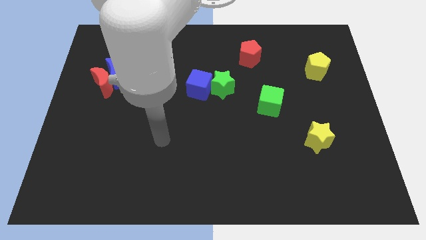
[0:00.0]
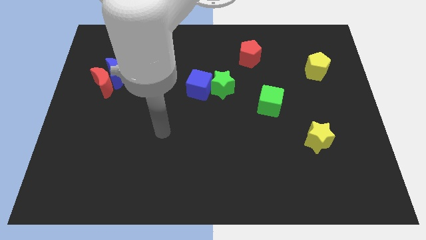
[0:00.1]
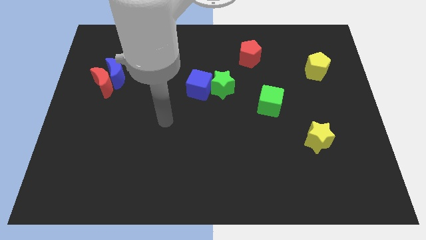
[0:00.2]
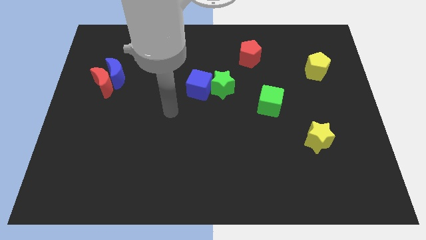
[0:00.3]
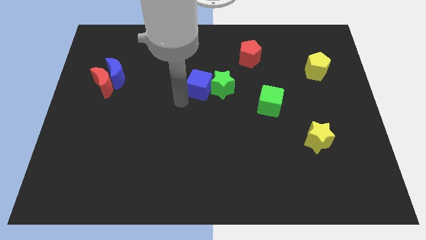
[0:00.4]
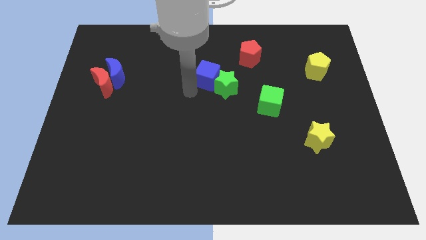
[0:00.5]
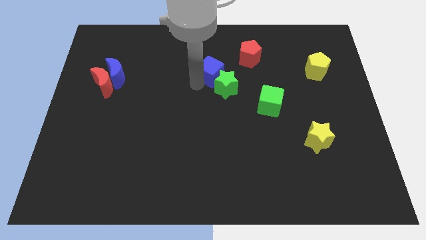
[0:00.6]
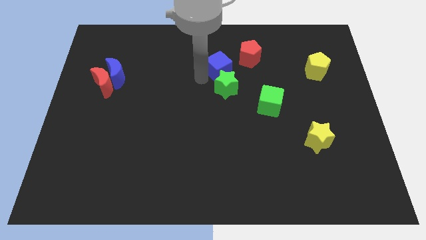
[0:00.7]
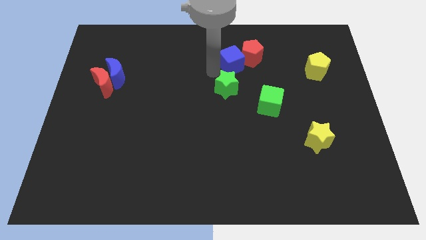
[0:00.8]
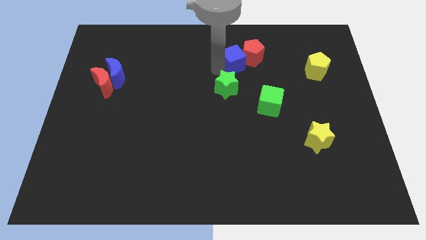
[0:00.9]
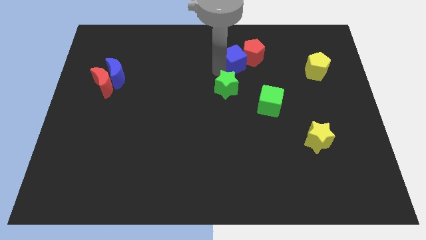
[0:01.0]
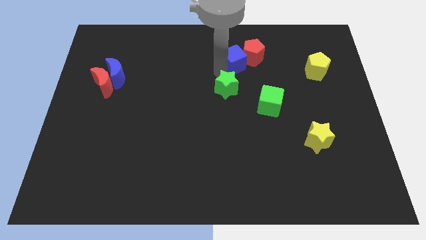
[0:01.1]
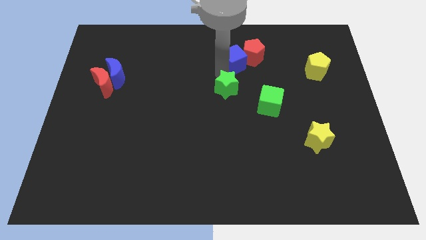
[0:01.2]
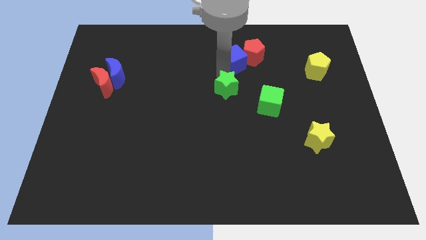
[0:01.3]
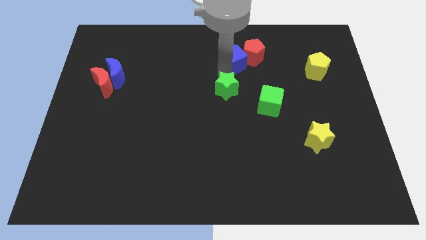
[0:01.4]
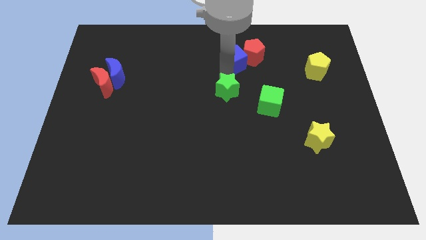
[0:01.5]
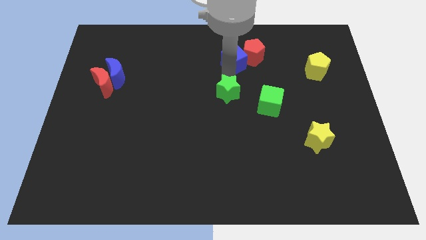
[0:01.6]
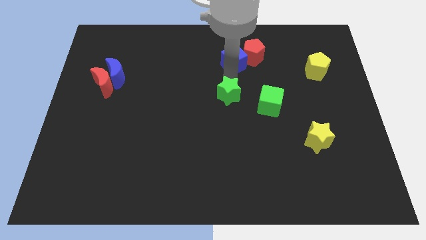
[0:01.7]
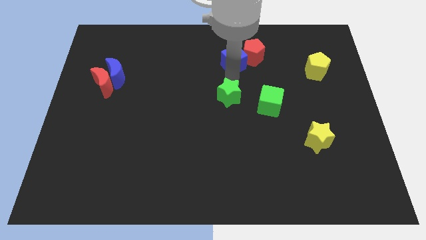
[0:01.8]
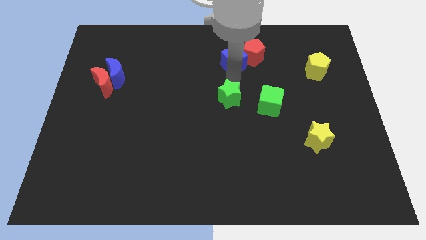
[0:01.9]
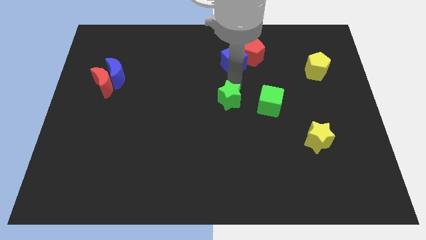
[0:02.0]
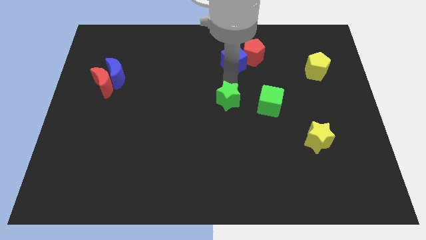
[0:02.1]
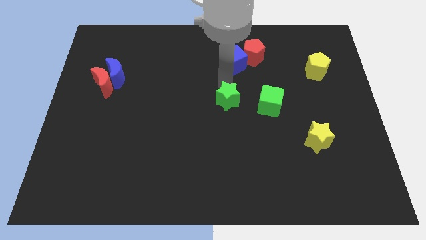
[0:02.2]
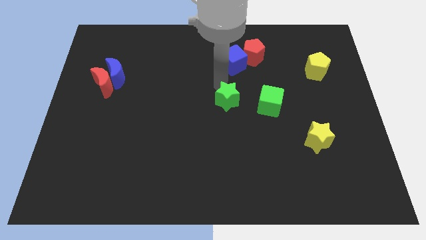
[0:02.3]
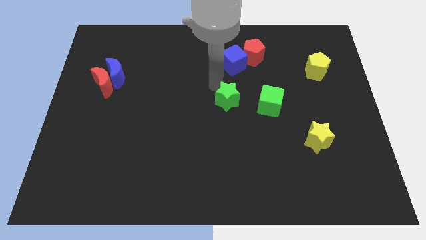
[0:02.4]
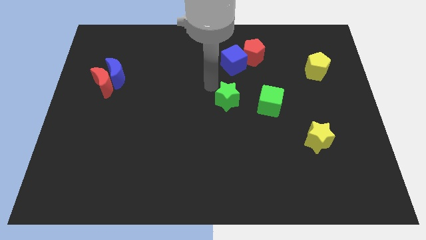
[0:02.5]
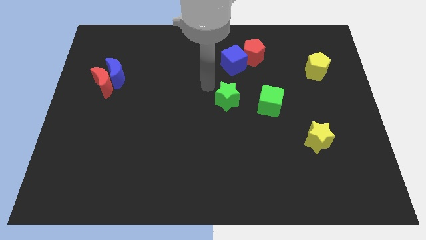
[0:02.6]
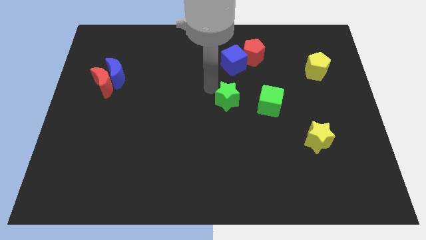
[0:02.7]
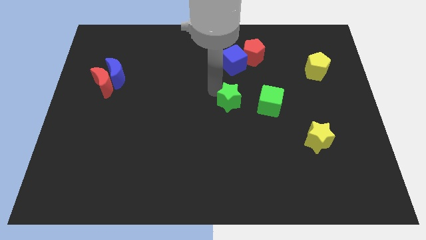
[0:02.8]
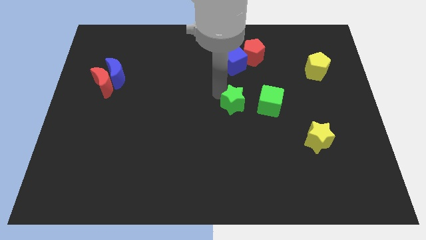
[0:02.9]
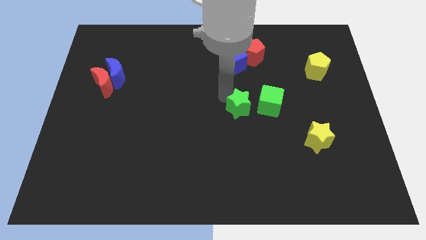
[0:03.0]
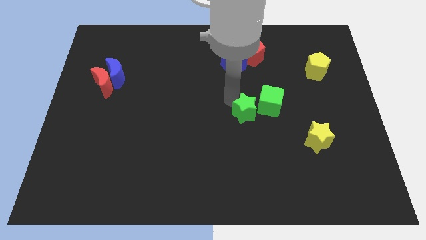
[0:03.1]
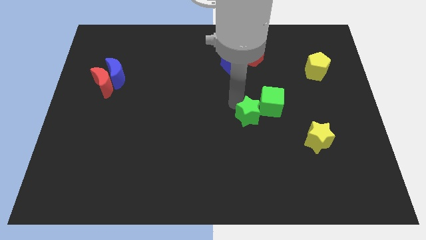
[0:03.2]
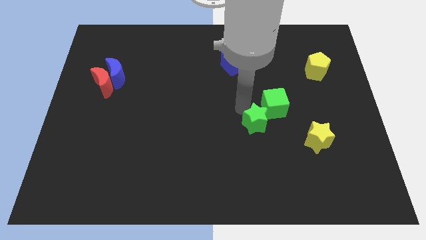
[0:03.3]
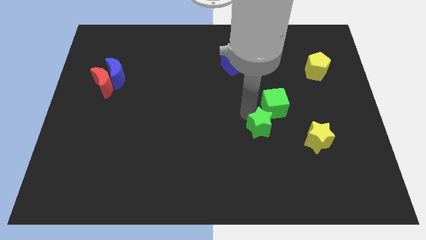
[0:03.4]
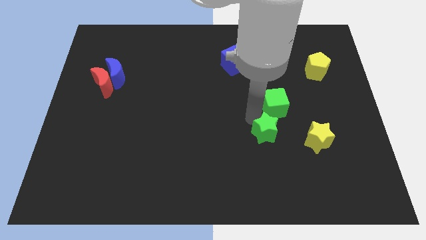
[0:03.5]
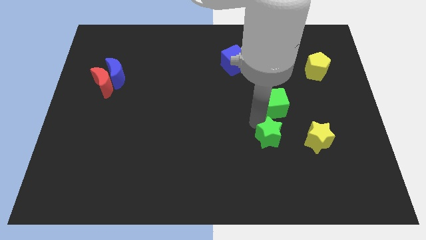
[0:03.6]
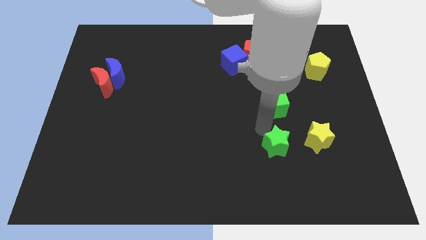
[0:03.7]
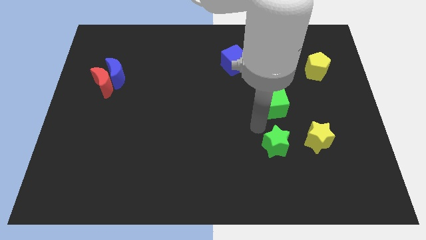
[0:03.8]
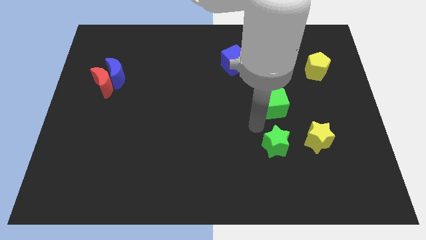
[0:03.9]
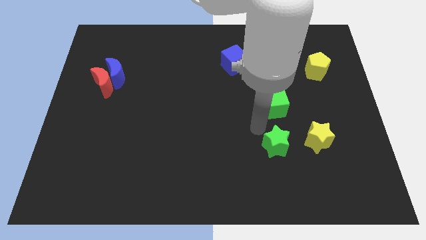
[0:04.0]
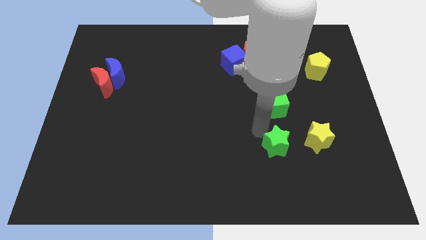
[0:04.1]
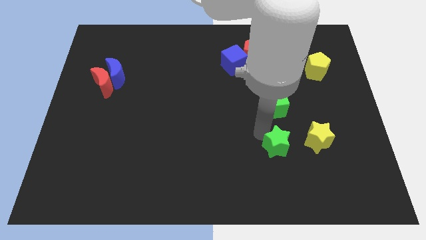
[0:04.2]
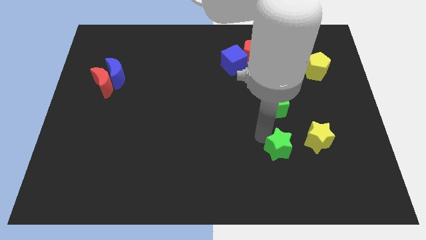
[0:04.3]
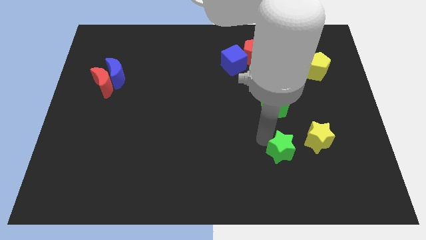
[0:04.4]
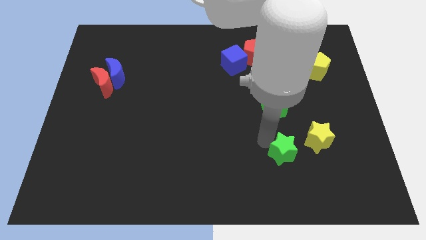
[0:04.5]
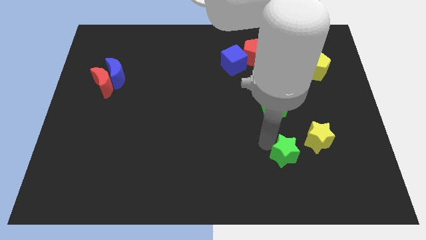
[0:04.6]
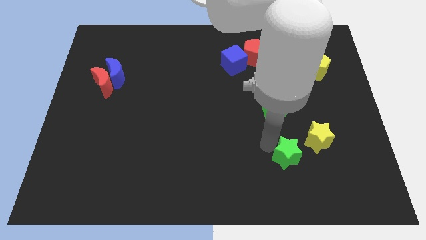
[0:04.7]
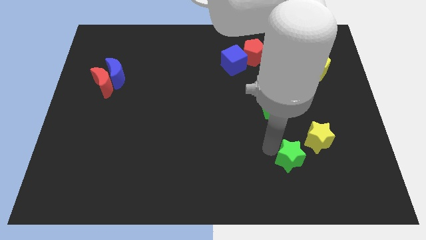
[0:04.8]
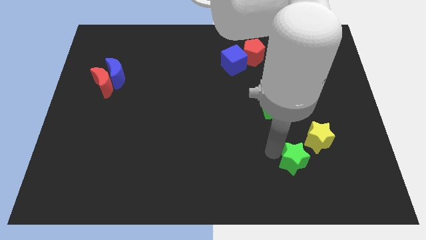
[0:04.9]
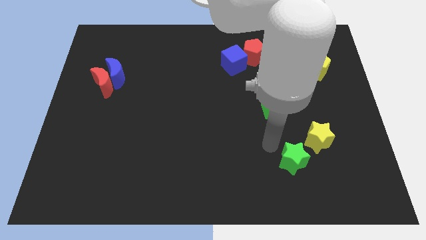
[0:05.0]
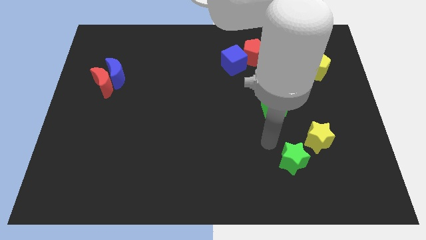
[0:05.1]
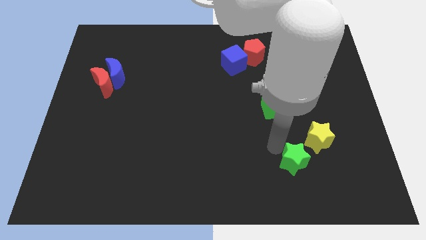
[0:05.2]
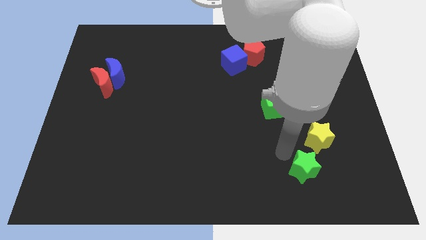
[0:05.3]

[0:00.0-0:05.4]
put the green star below the yellow star

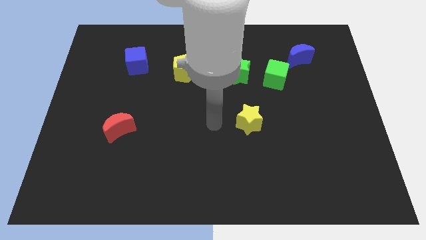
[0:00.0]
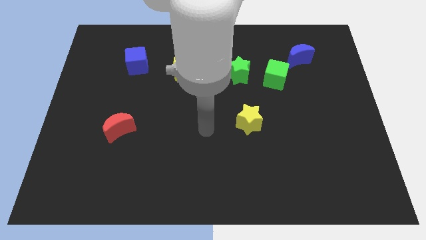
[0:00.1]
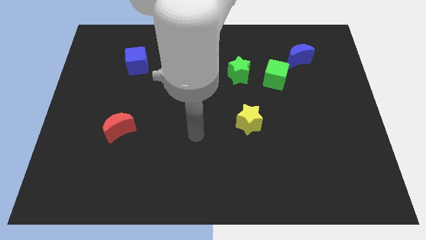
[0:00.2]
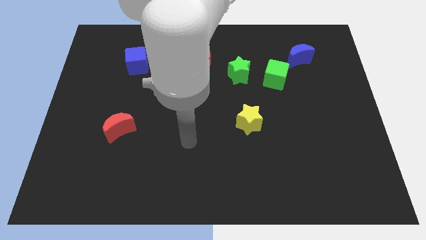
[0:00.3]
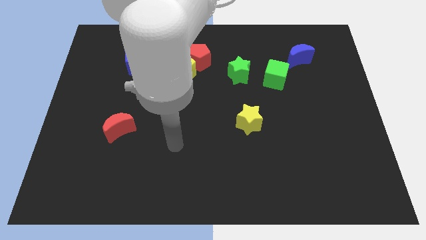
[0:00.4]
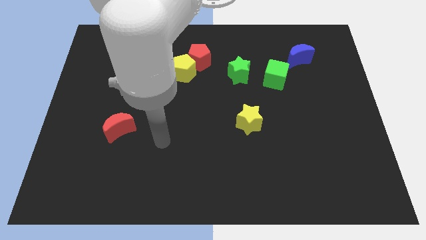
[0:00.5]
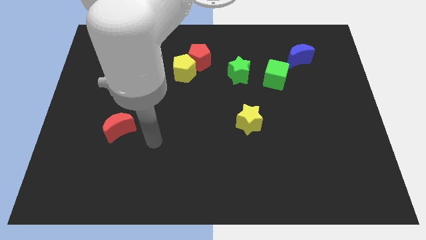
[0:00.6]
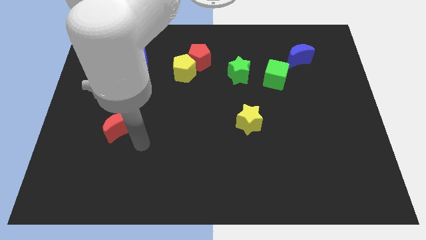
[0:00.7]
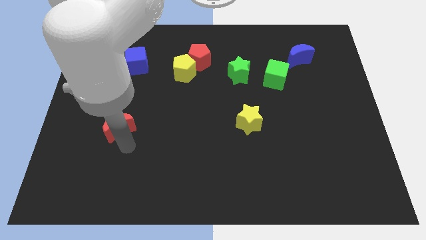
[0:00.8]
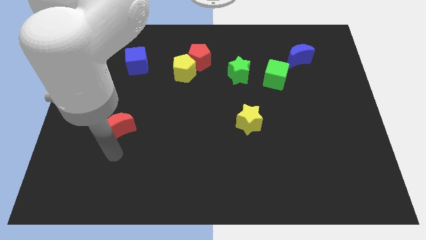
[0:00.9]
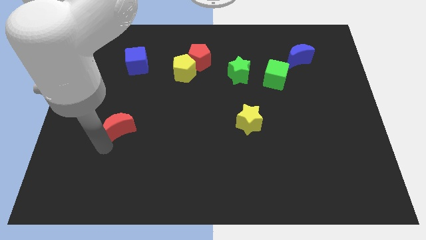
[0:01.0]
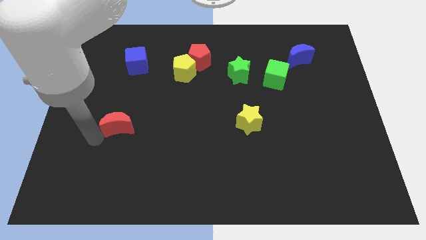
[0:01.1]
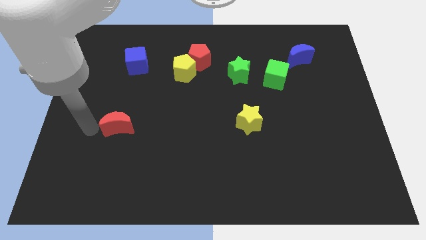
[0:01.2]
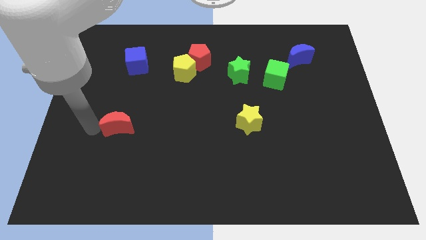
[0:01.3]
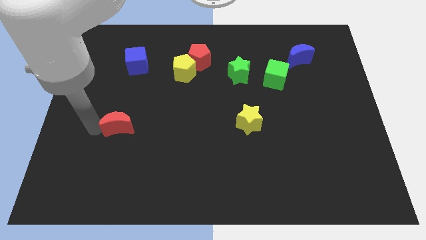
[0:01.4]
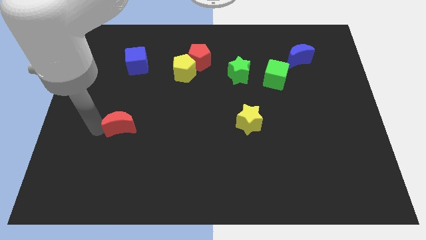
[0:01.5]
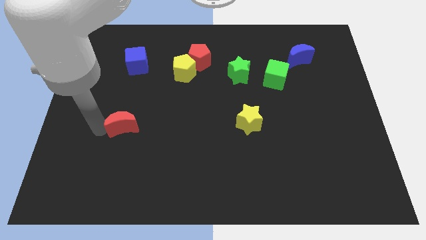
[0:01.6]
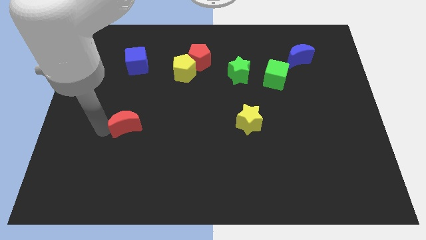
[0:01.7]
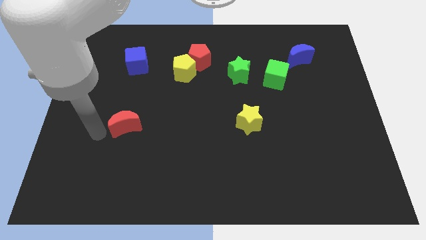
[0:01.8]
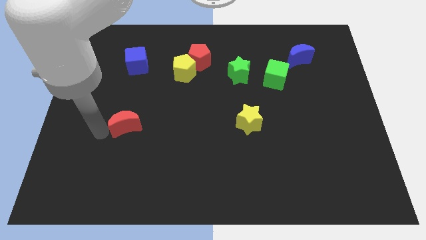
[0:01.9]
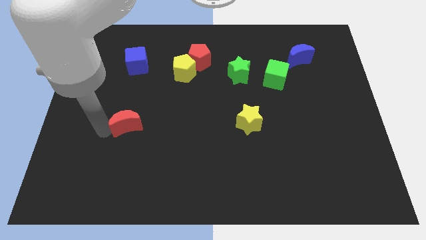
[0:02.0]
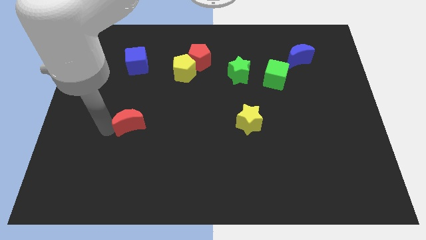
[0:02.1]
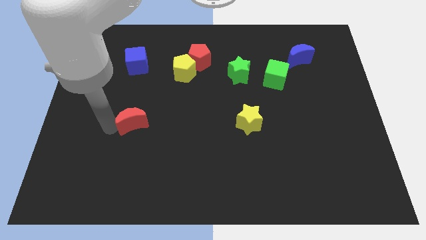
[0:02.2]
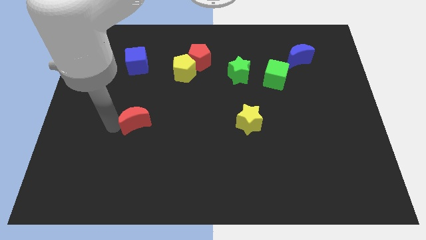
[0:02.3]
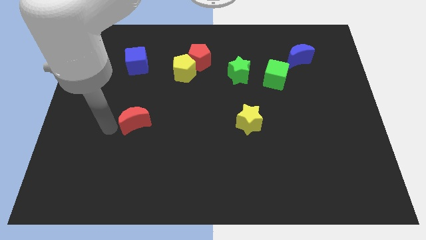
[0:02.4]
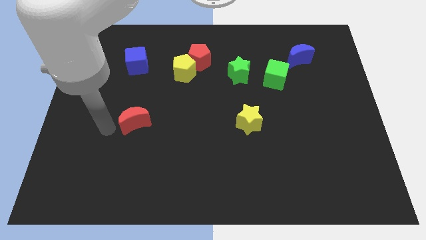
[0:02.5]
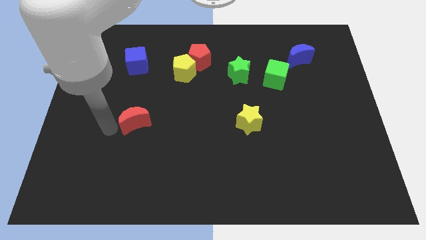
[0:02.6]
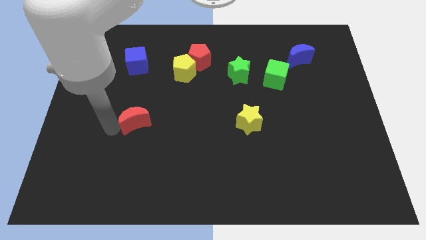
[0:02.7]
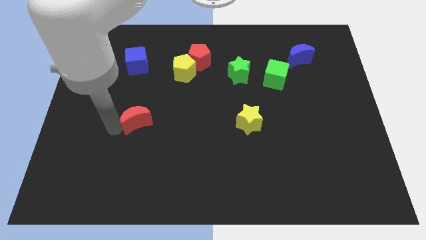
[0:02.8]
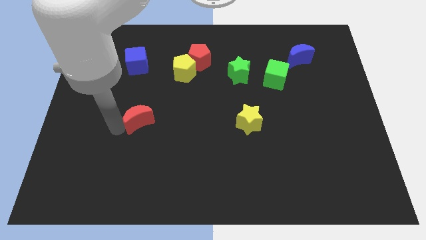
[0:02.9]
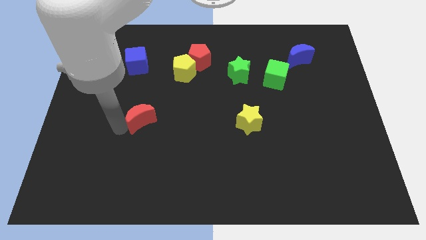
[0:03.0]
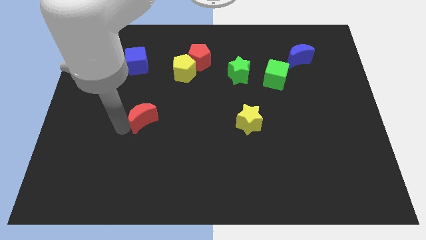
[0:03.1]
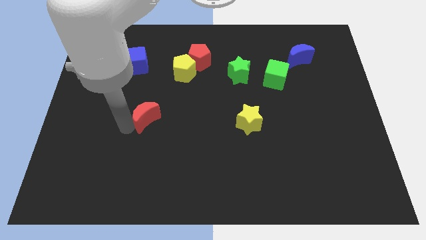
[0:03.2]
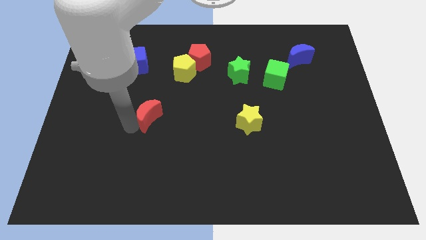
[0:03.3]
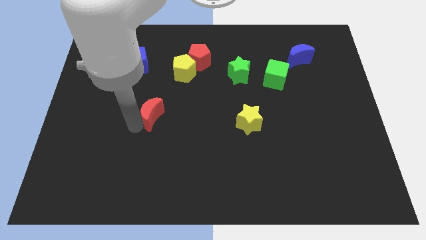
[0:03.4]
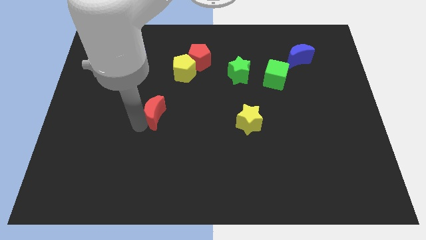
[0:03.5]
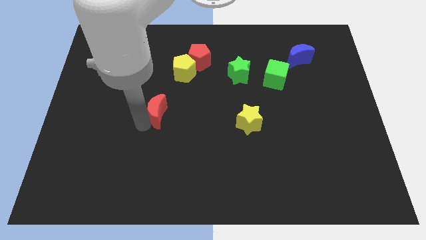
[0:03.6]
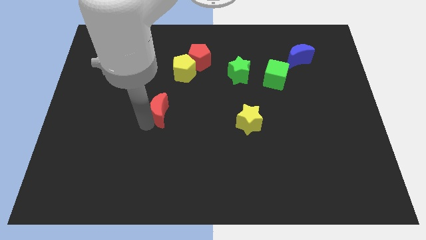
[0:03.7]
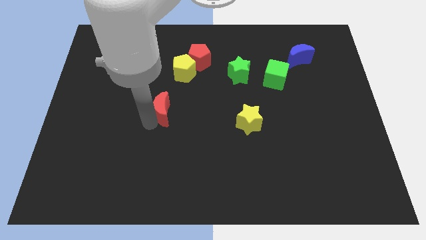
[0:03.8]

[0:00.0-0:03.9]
move the red moon to the bottom of the yellow pentagon
